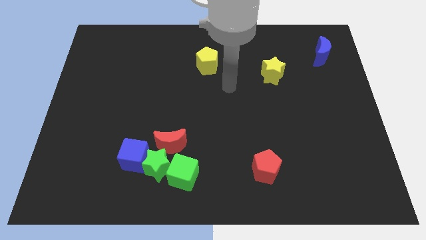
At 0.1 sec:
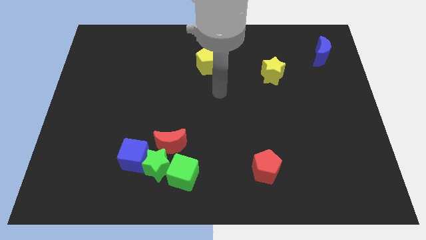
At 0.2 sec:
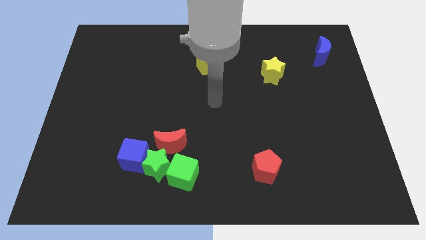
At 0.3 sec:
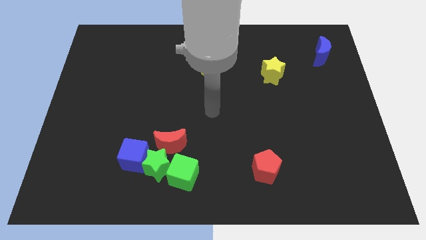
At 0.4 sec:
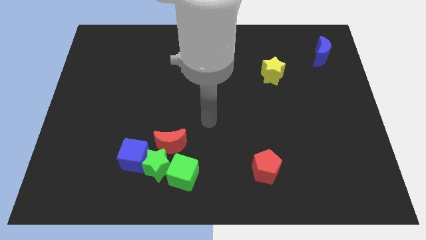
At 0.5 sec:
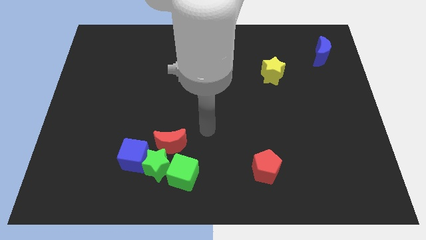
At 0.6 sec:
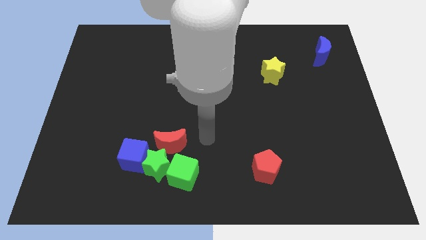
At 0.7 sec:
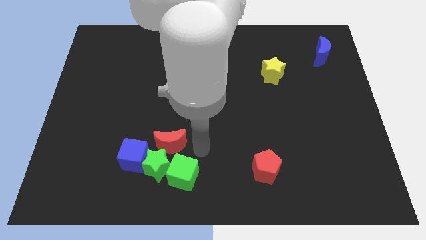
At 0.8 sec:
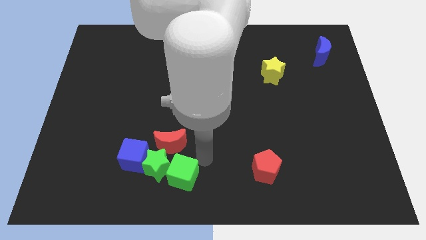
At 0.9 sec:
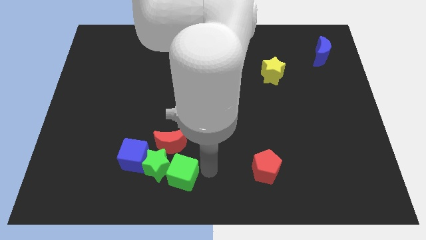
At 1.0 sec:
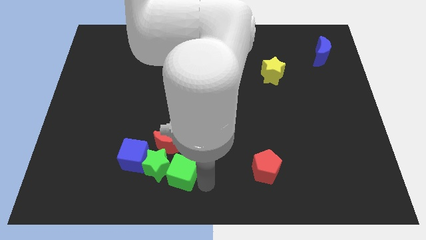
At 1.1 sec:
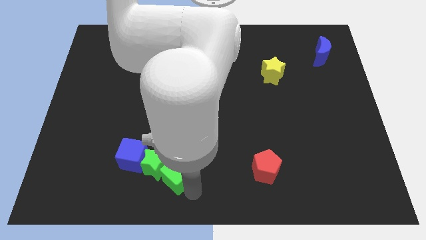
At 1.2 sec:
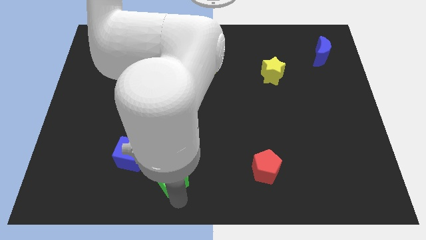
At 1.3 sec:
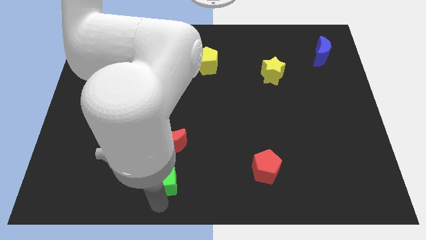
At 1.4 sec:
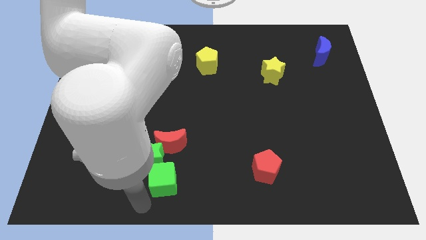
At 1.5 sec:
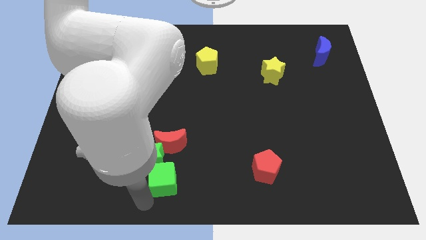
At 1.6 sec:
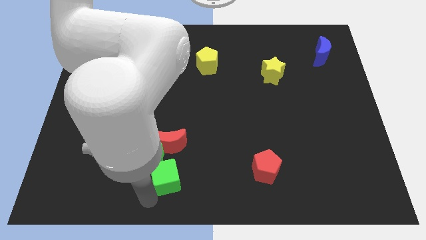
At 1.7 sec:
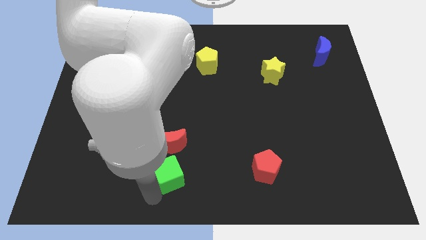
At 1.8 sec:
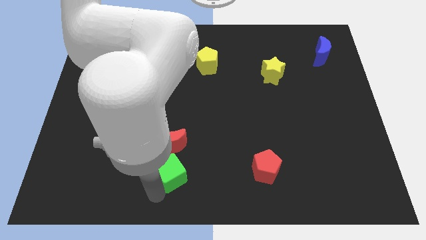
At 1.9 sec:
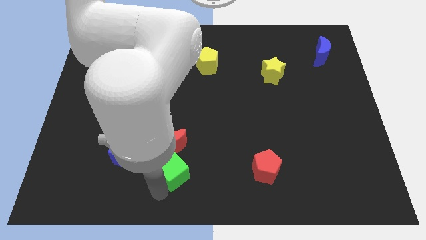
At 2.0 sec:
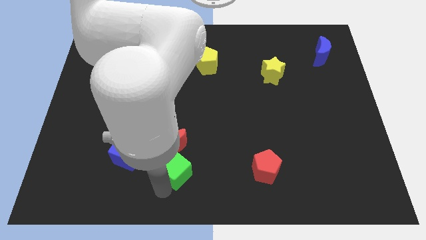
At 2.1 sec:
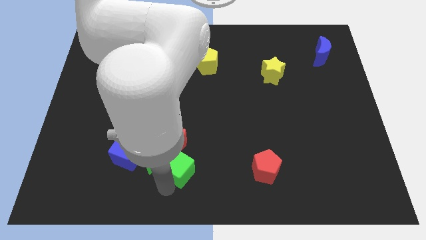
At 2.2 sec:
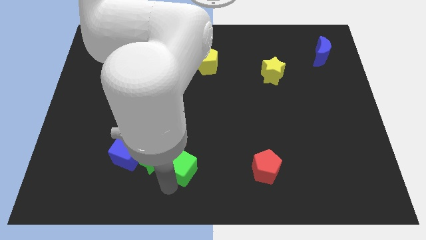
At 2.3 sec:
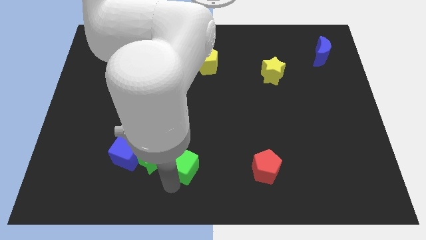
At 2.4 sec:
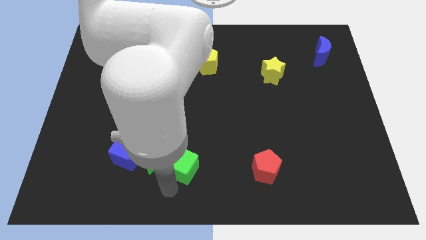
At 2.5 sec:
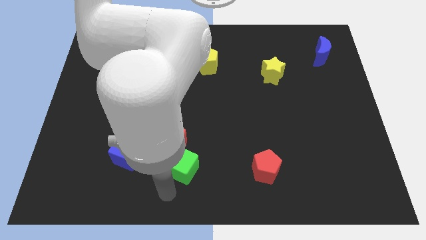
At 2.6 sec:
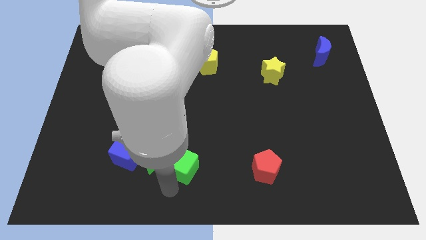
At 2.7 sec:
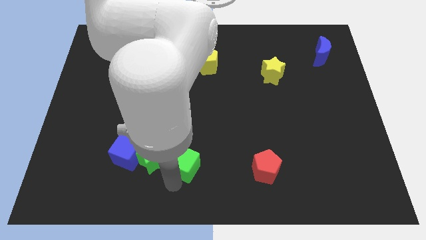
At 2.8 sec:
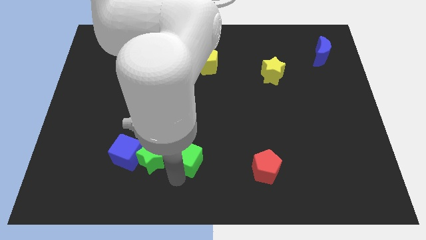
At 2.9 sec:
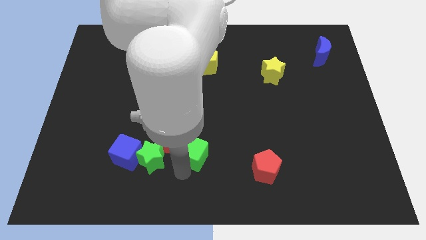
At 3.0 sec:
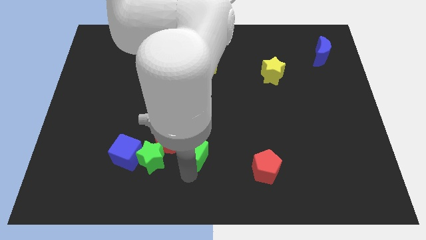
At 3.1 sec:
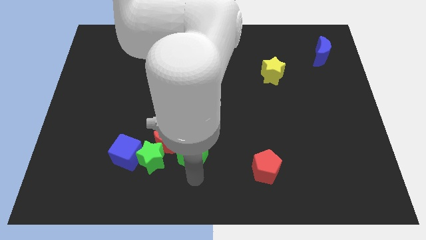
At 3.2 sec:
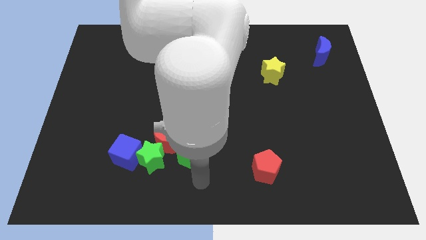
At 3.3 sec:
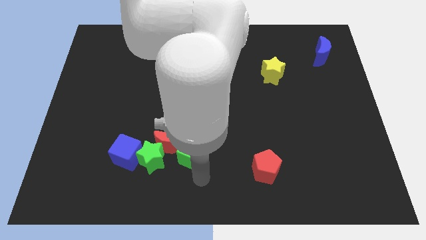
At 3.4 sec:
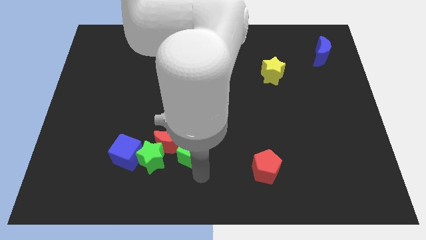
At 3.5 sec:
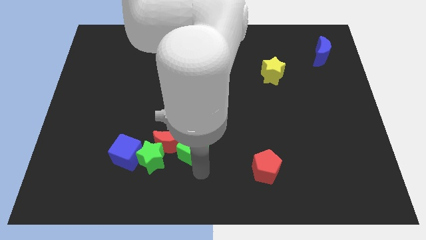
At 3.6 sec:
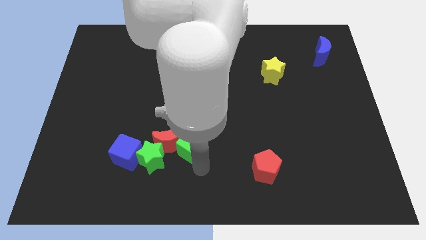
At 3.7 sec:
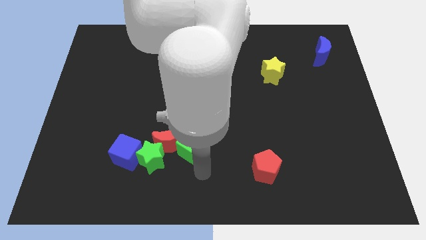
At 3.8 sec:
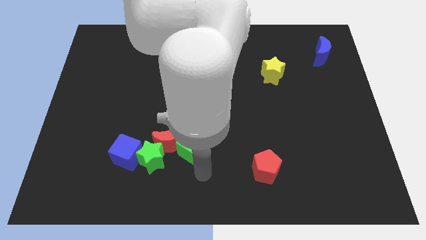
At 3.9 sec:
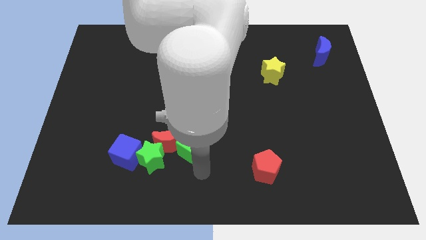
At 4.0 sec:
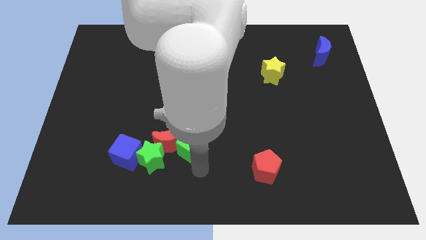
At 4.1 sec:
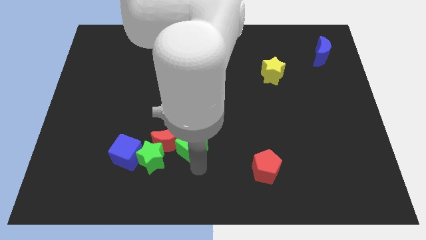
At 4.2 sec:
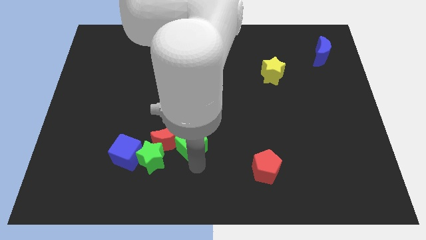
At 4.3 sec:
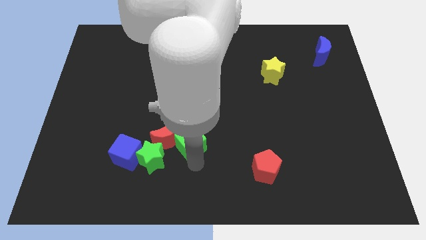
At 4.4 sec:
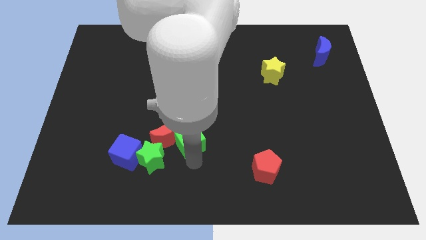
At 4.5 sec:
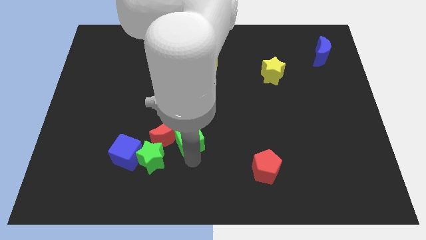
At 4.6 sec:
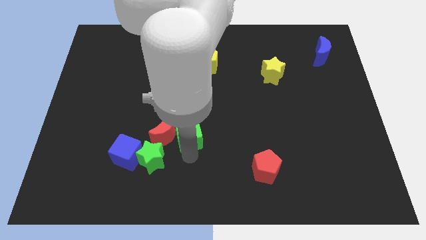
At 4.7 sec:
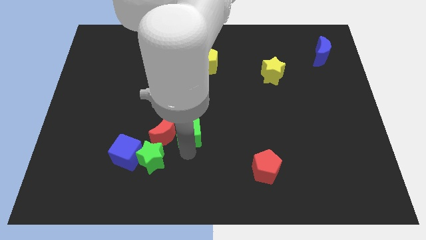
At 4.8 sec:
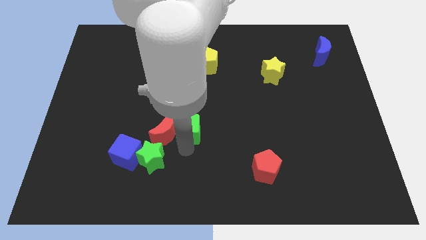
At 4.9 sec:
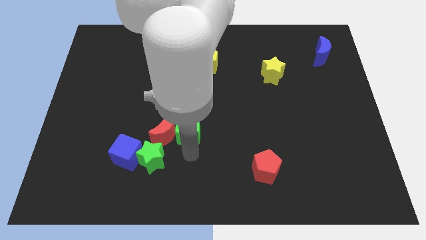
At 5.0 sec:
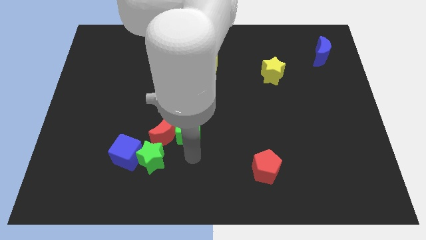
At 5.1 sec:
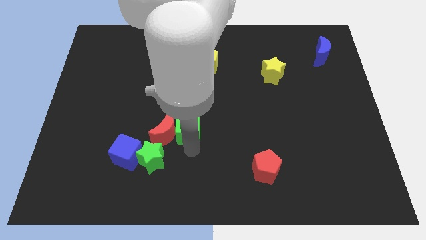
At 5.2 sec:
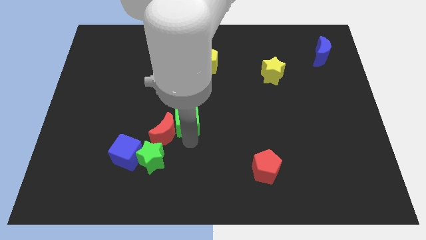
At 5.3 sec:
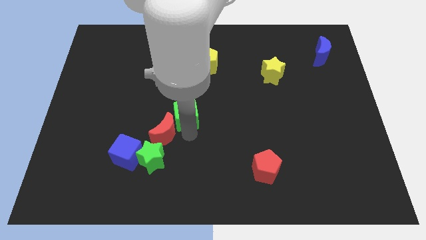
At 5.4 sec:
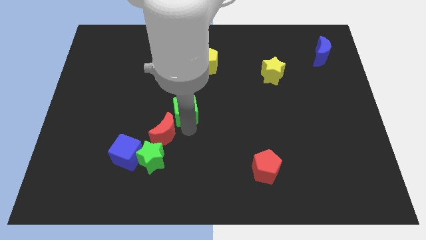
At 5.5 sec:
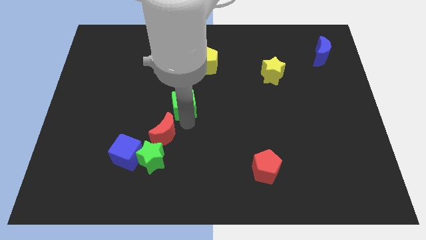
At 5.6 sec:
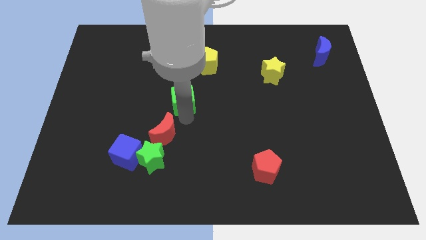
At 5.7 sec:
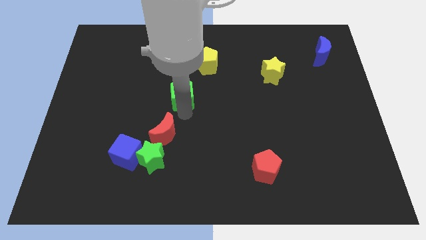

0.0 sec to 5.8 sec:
move the green cube up

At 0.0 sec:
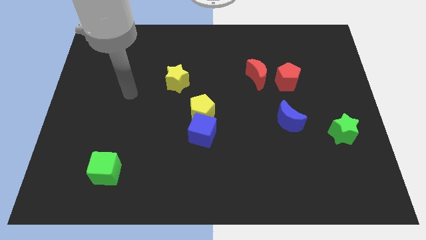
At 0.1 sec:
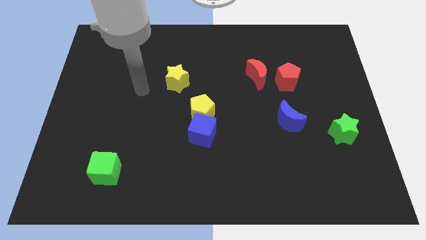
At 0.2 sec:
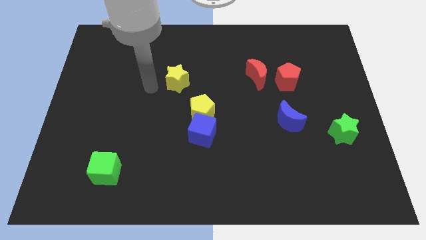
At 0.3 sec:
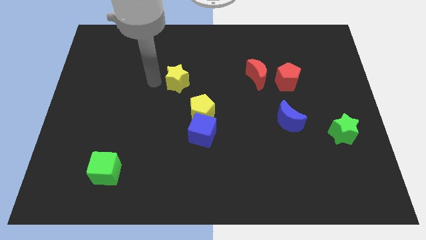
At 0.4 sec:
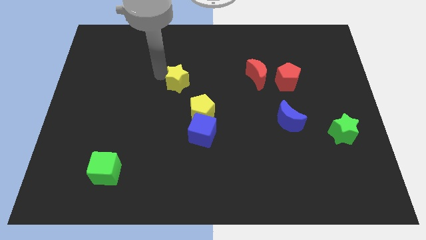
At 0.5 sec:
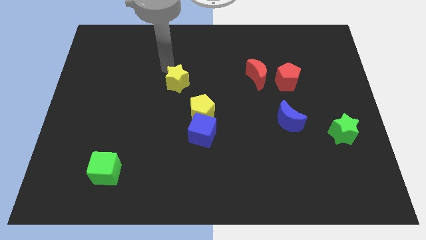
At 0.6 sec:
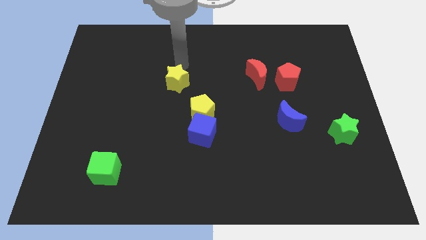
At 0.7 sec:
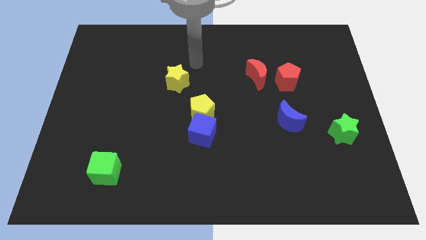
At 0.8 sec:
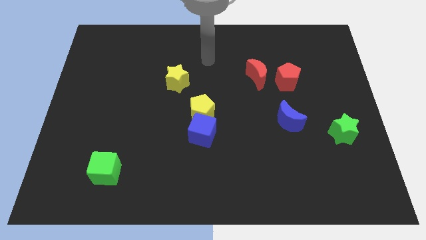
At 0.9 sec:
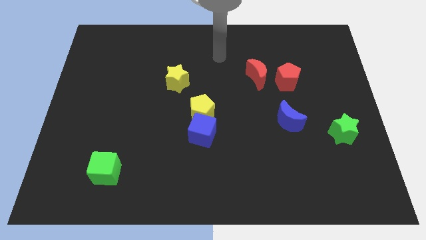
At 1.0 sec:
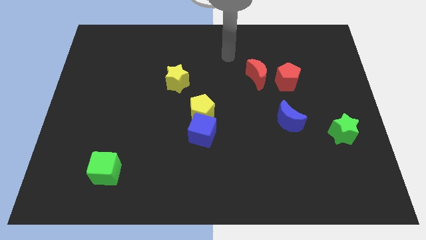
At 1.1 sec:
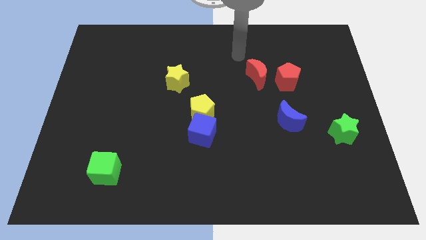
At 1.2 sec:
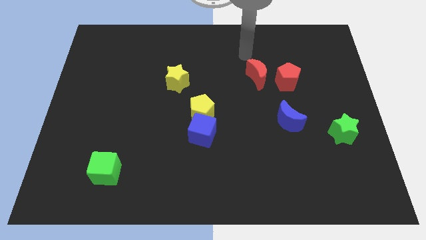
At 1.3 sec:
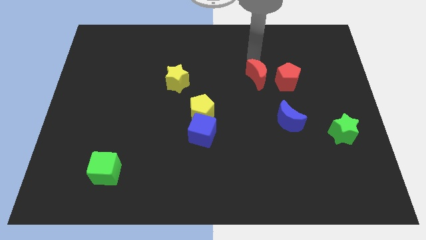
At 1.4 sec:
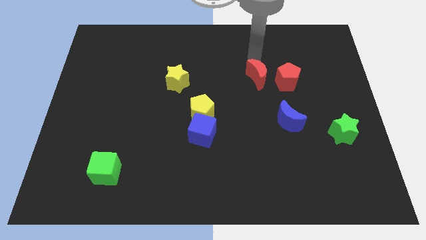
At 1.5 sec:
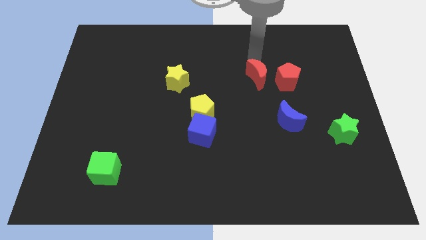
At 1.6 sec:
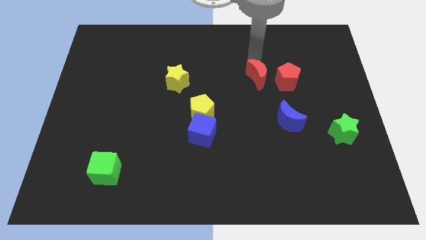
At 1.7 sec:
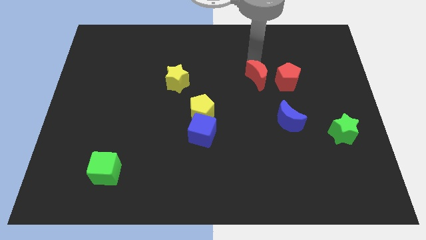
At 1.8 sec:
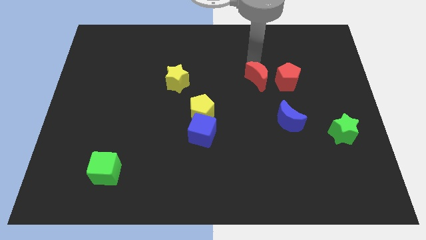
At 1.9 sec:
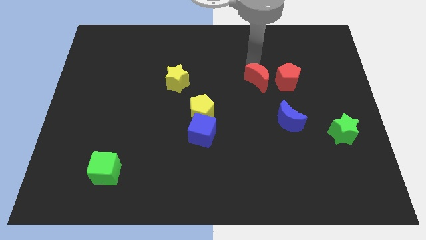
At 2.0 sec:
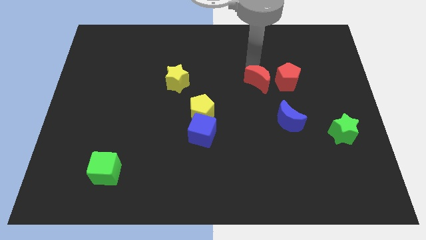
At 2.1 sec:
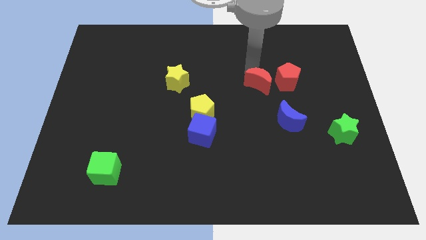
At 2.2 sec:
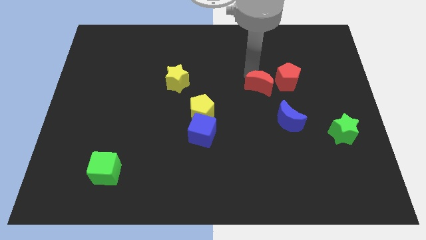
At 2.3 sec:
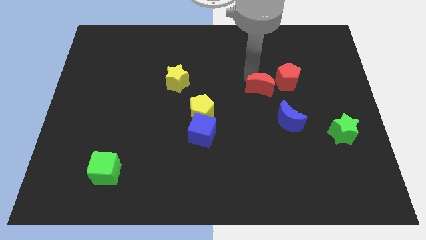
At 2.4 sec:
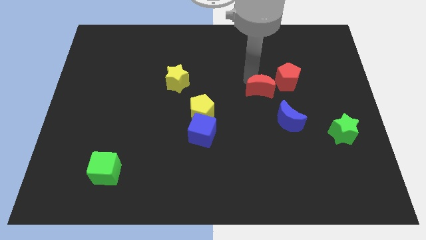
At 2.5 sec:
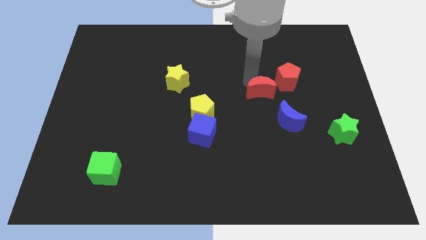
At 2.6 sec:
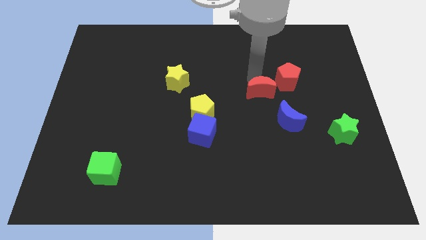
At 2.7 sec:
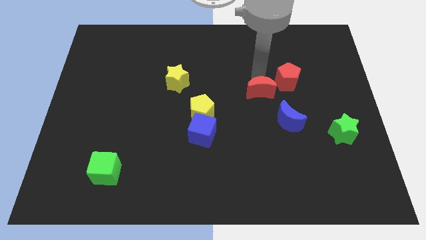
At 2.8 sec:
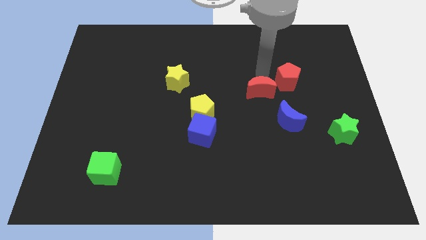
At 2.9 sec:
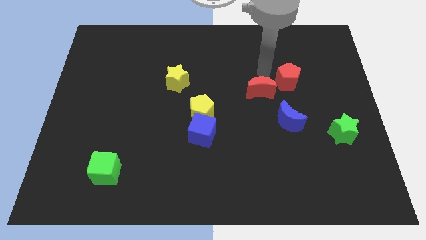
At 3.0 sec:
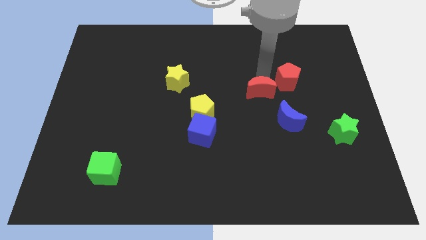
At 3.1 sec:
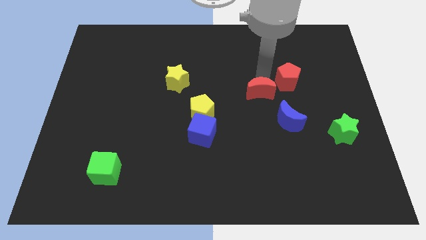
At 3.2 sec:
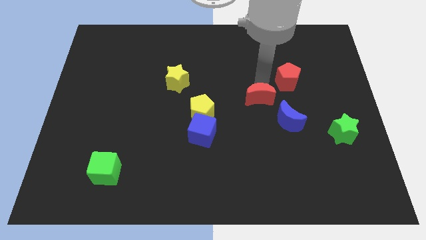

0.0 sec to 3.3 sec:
slide the red moon downwards a little bit
